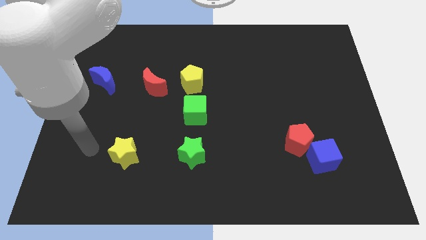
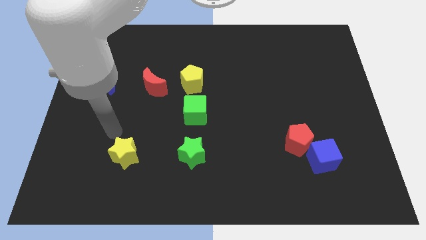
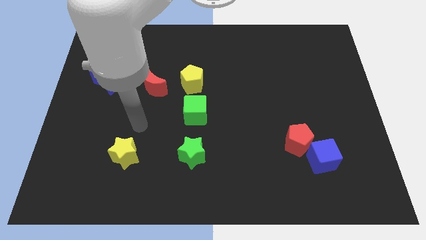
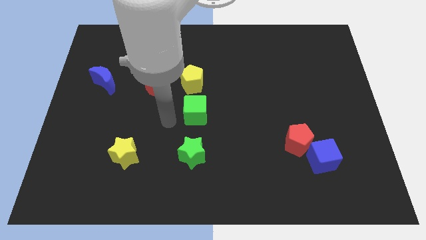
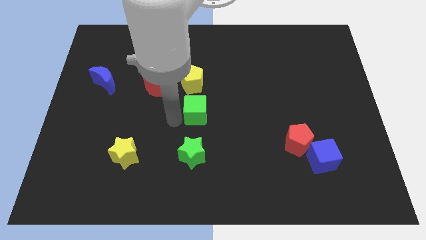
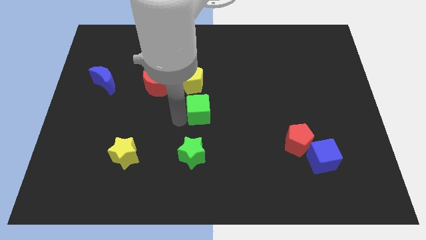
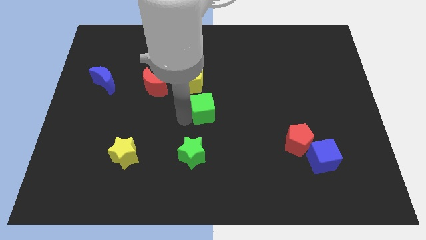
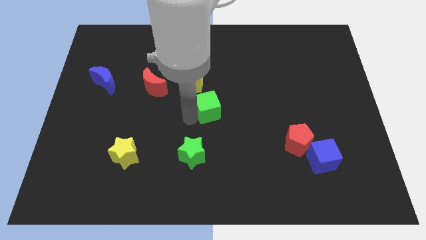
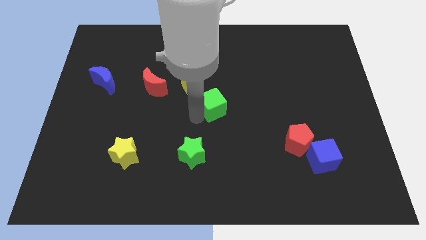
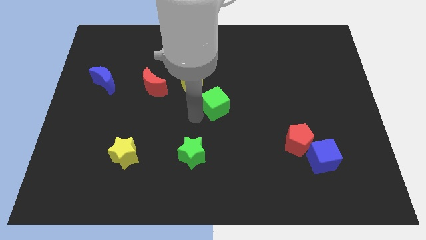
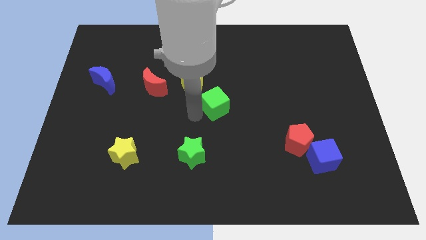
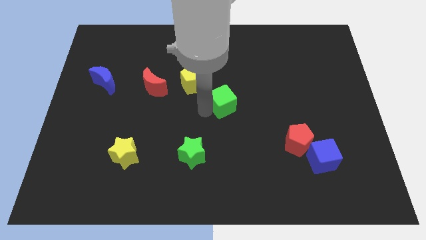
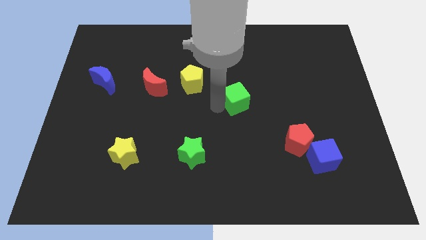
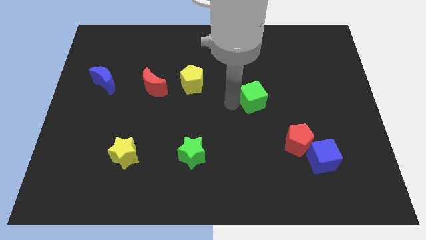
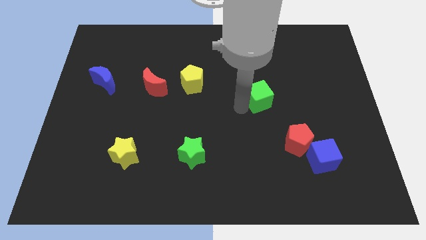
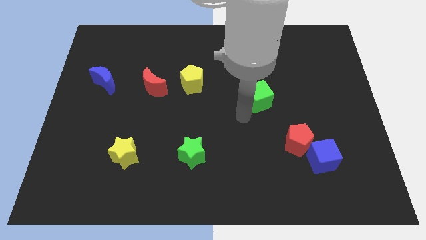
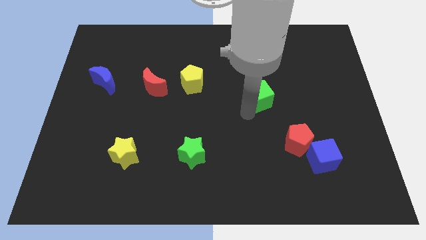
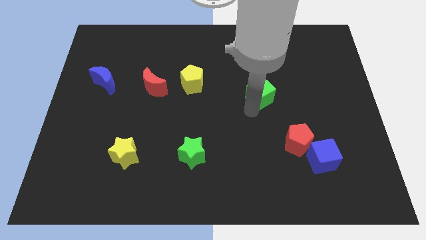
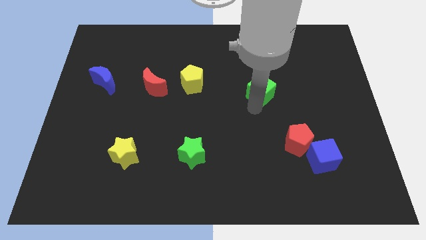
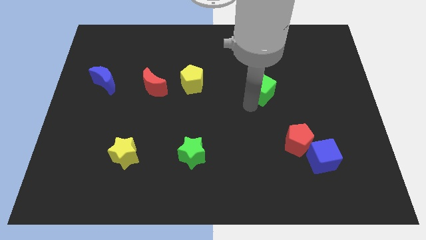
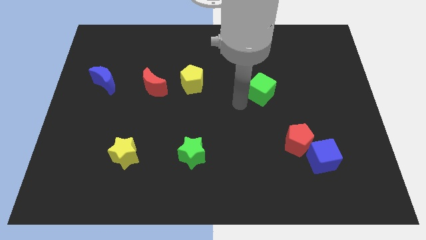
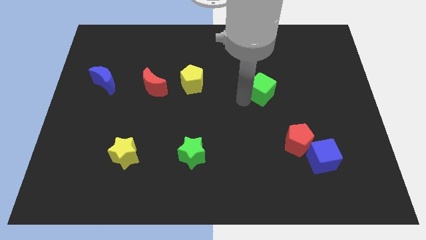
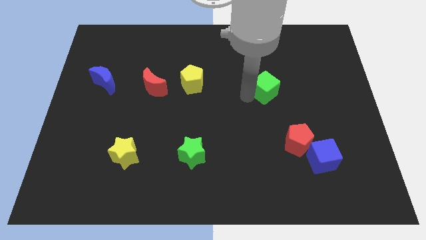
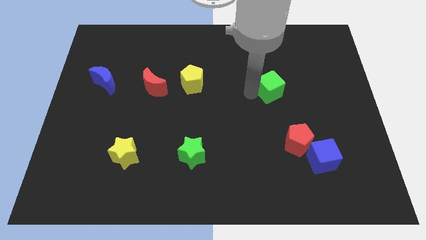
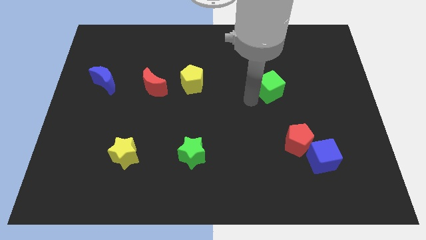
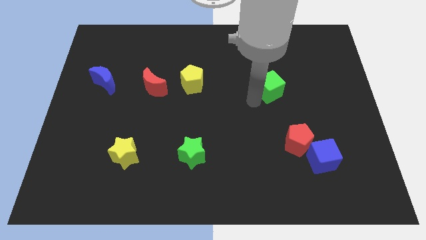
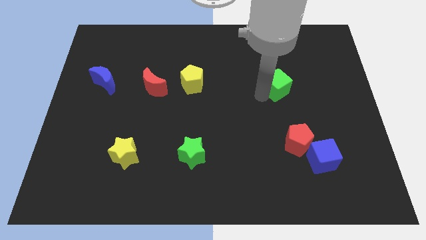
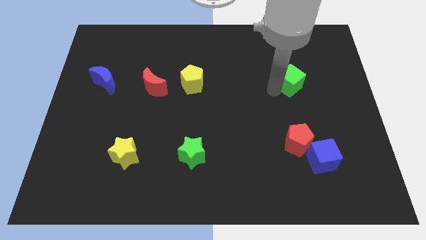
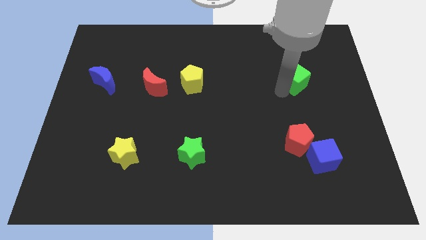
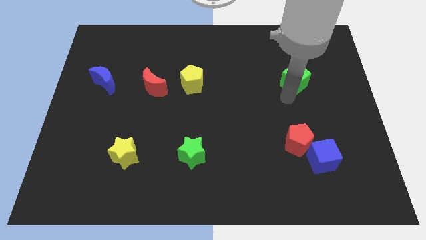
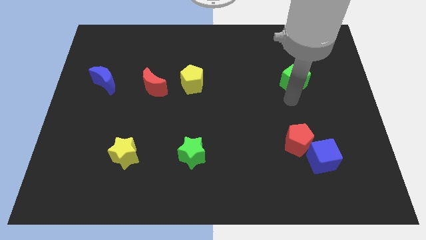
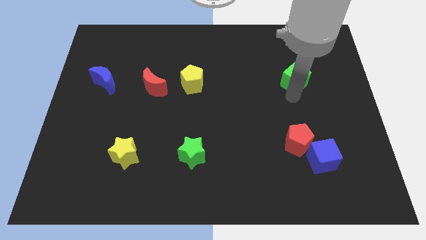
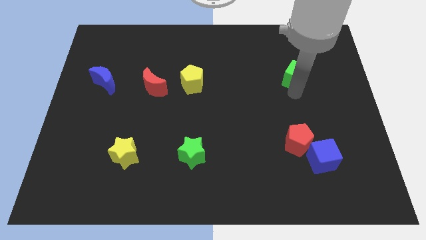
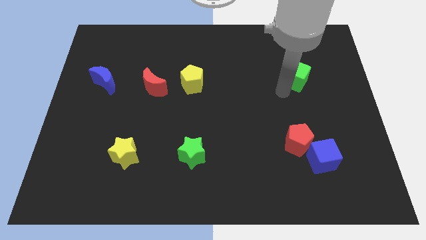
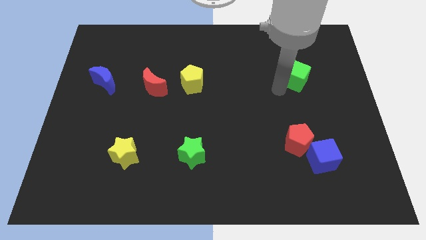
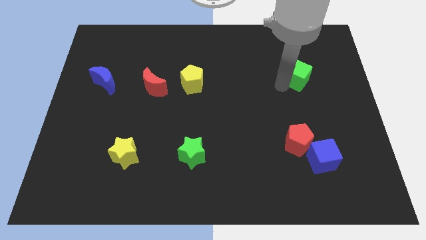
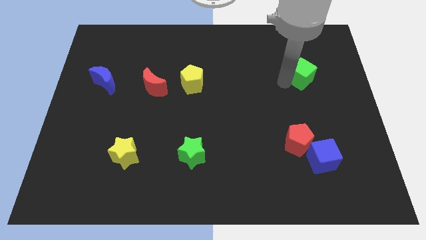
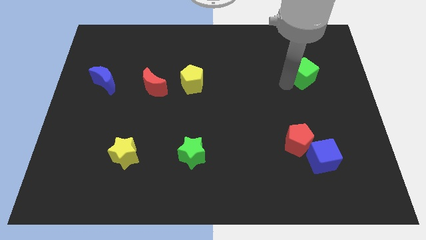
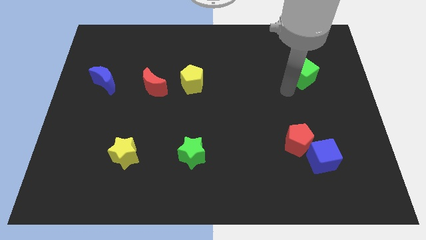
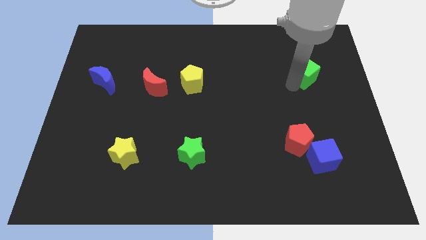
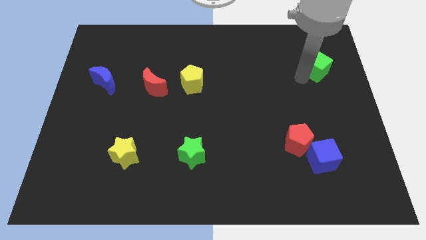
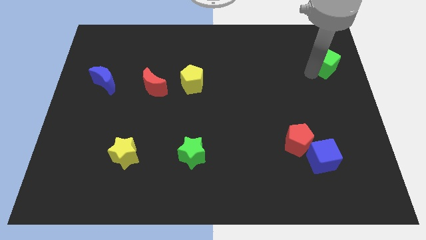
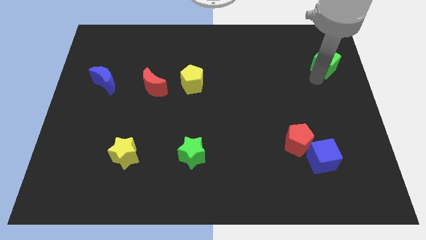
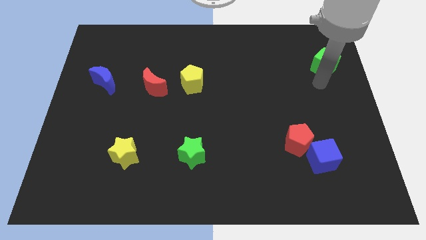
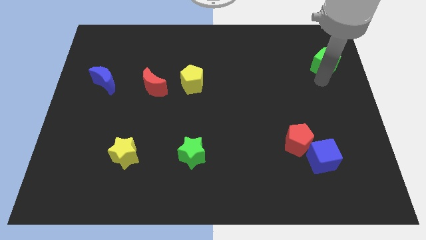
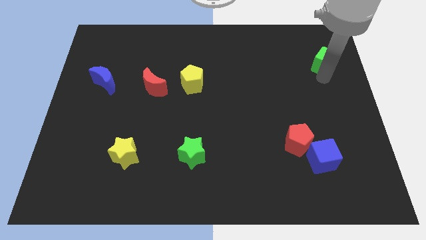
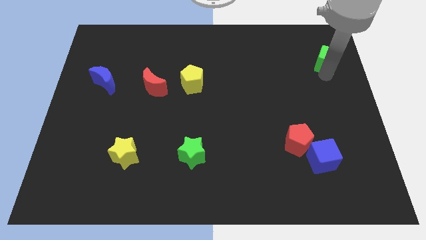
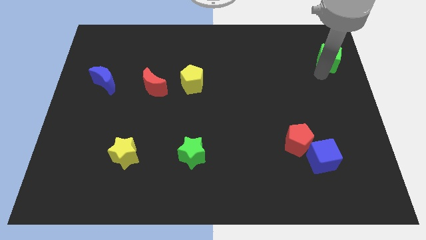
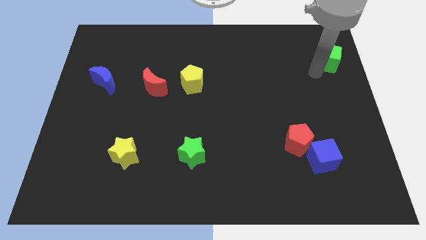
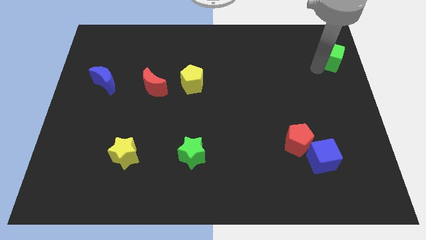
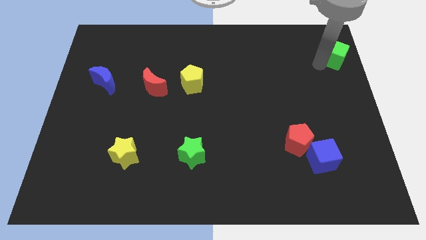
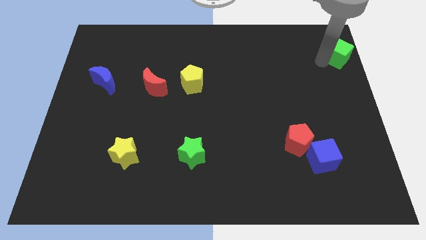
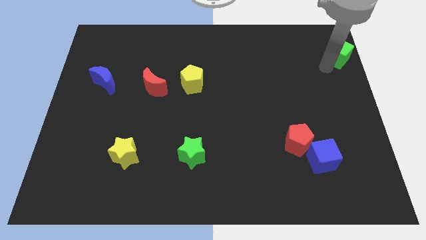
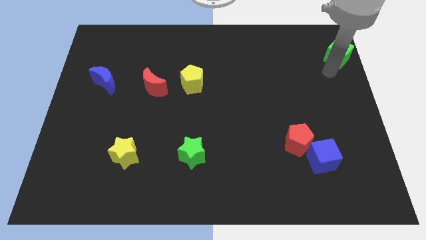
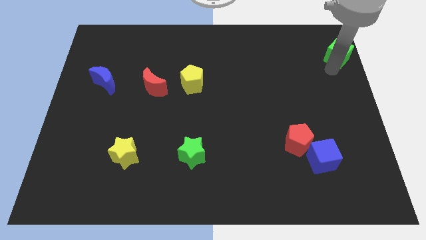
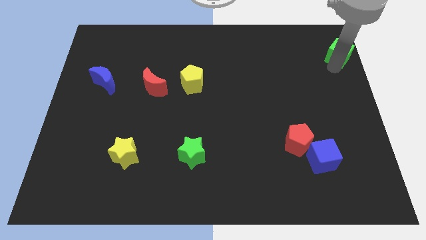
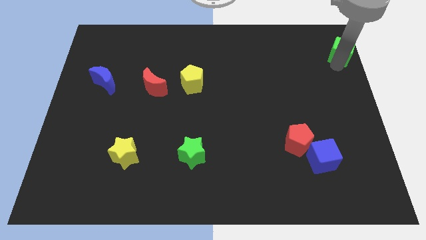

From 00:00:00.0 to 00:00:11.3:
put the green cube to the top right corner

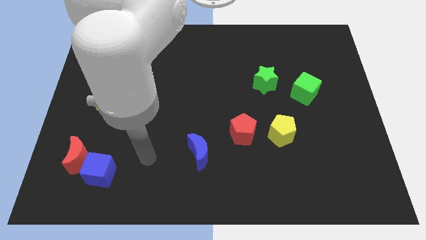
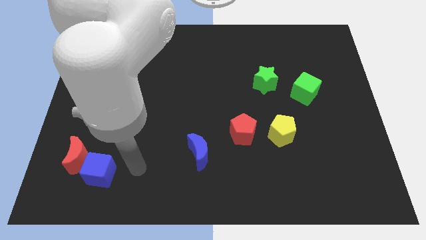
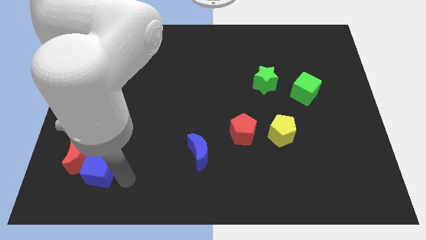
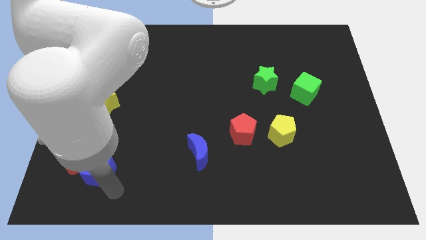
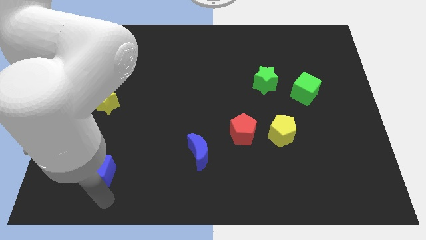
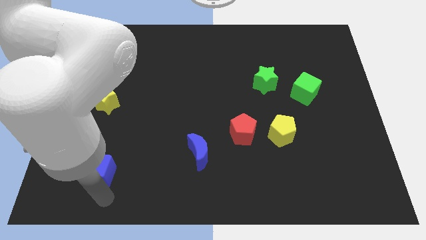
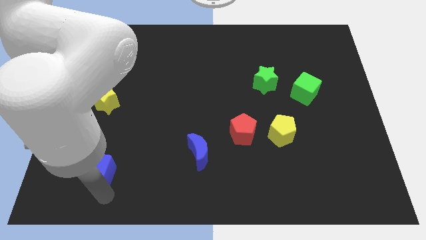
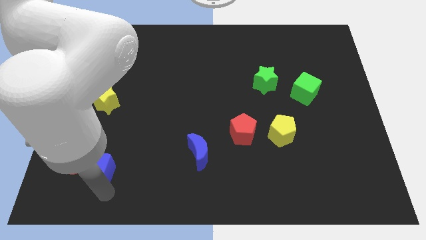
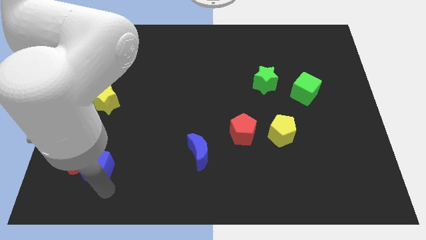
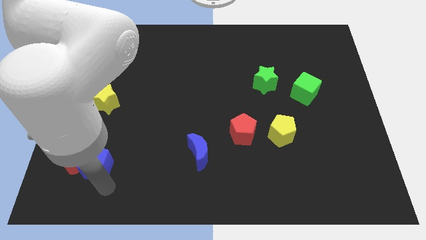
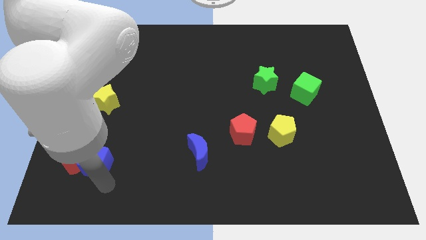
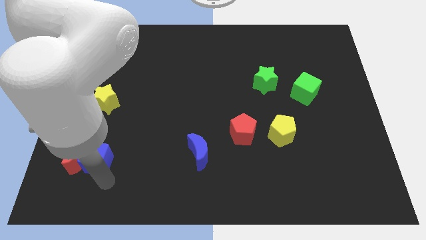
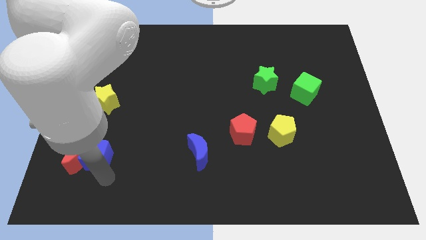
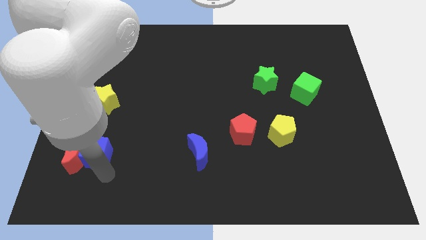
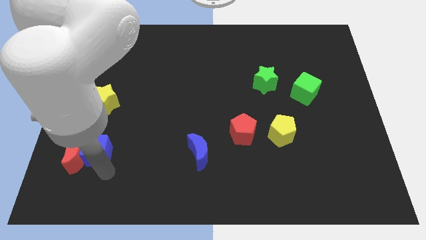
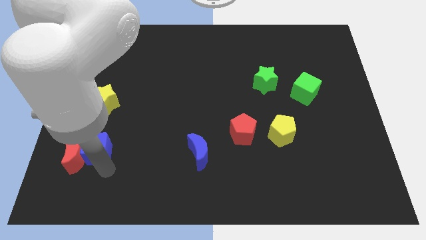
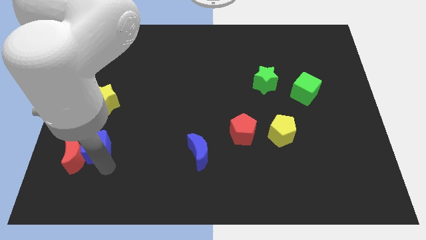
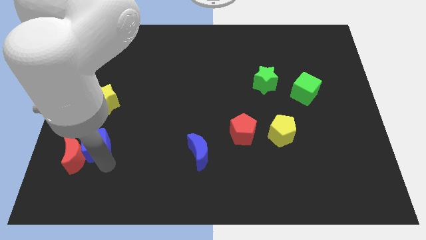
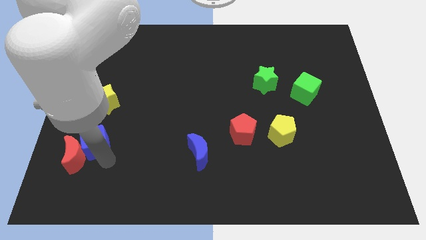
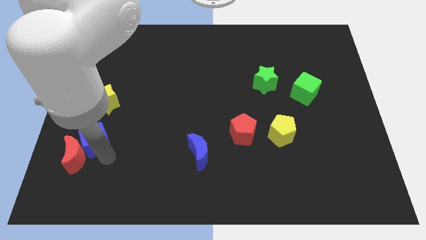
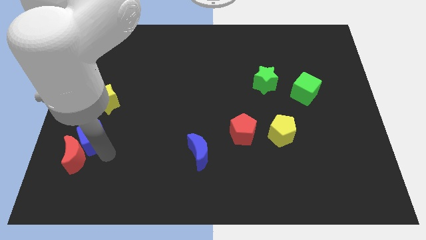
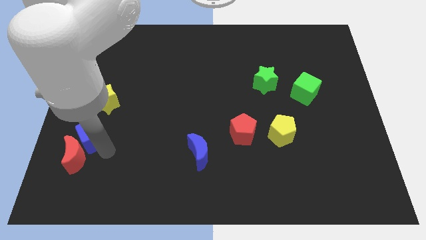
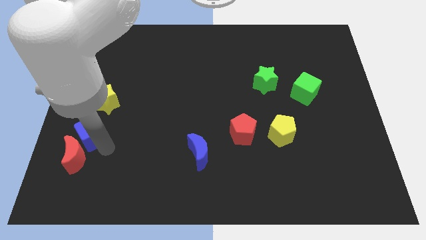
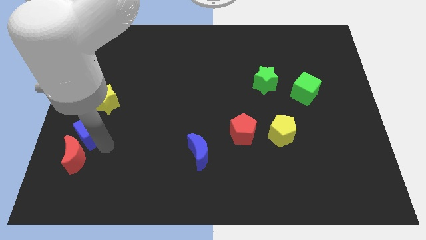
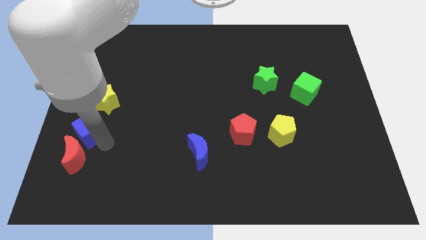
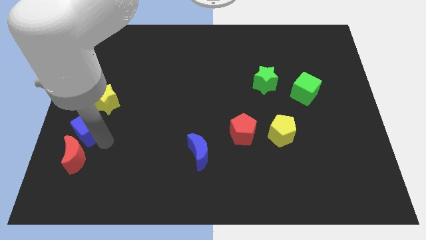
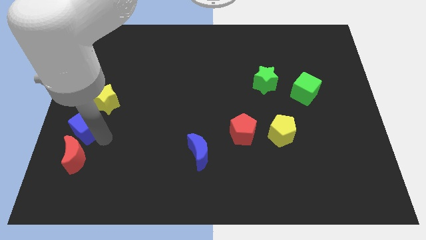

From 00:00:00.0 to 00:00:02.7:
put the blue cube to the center left
